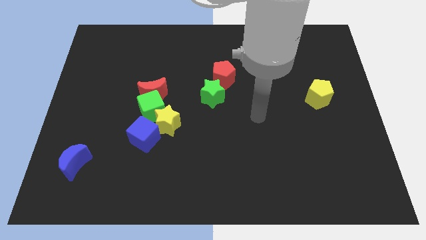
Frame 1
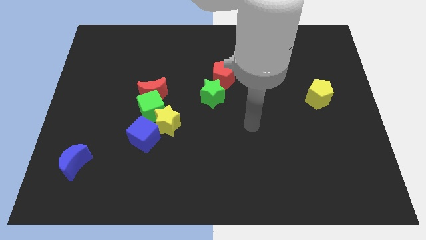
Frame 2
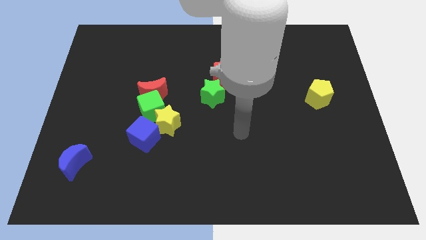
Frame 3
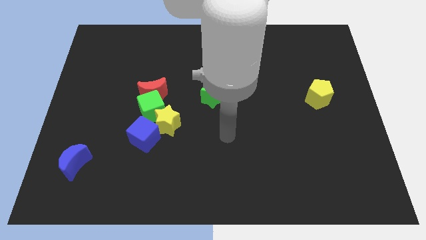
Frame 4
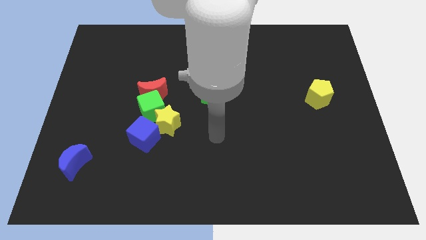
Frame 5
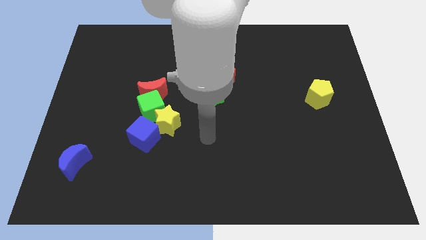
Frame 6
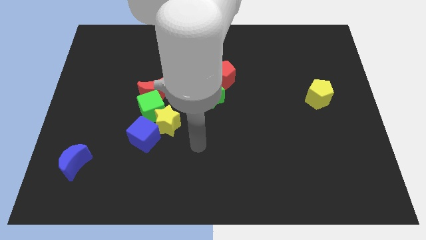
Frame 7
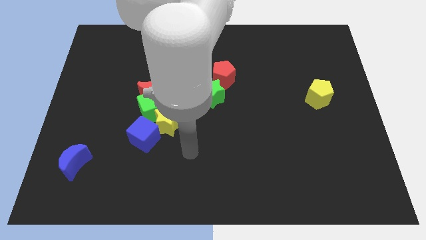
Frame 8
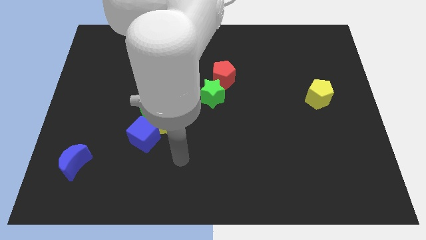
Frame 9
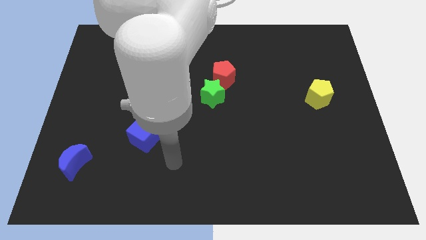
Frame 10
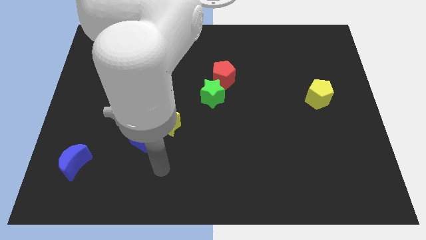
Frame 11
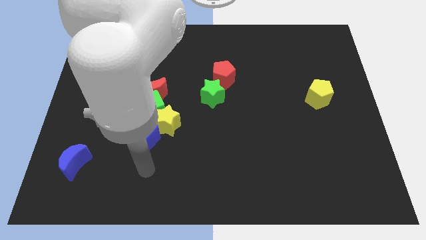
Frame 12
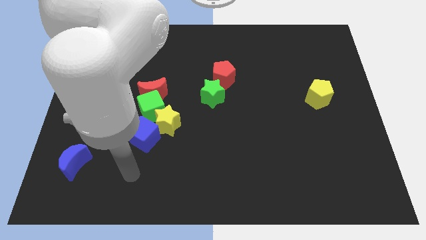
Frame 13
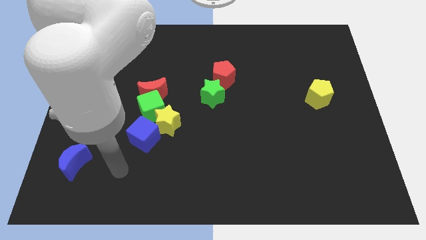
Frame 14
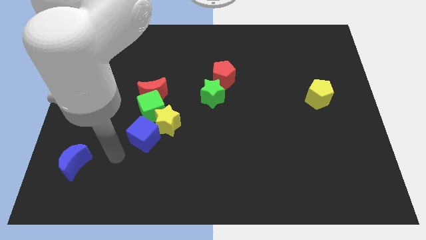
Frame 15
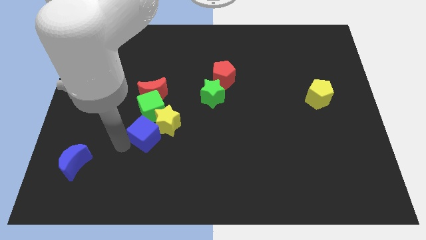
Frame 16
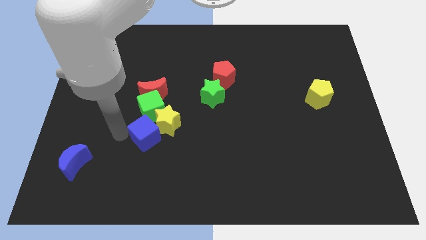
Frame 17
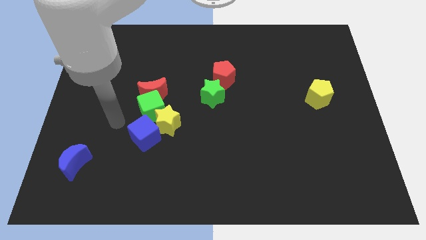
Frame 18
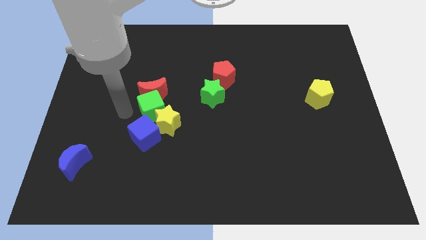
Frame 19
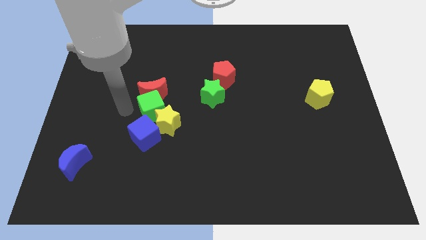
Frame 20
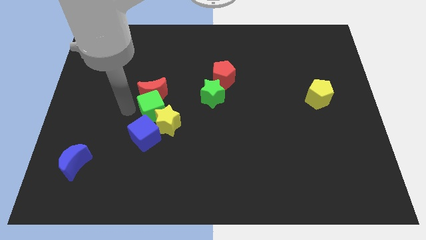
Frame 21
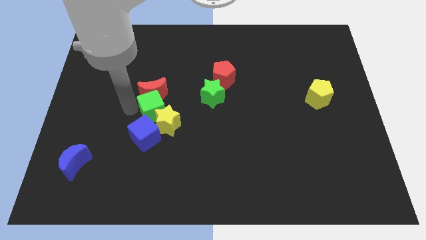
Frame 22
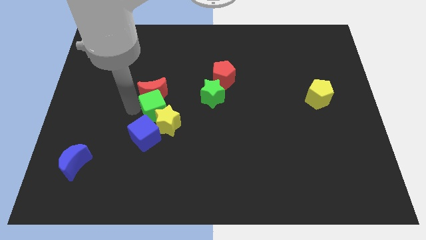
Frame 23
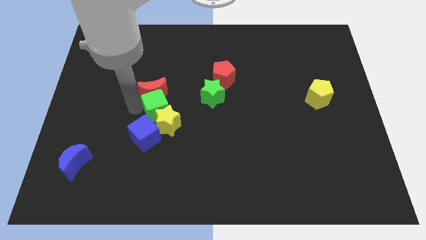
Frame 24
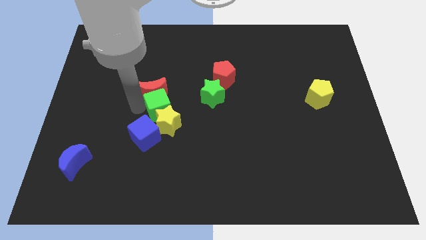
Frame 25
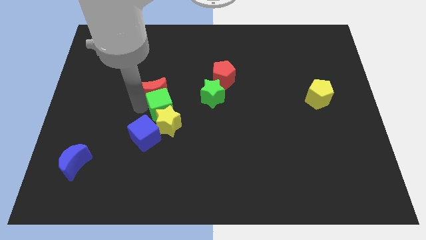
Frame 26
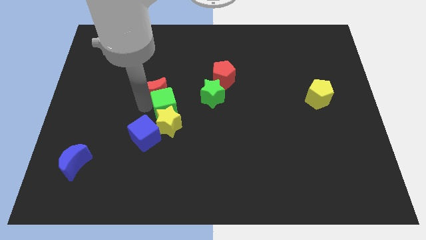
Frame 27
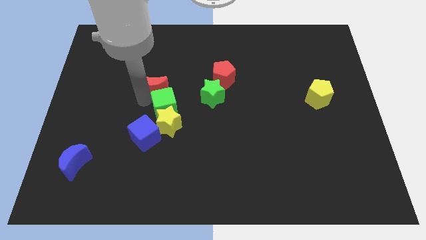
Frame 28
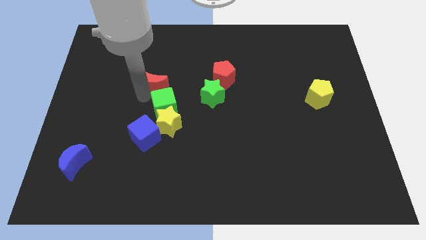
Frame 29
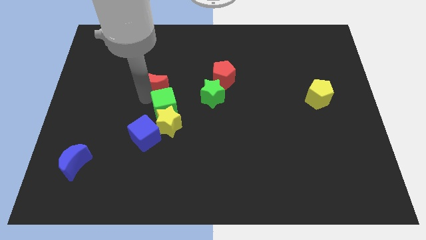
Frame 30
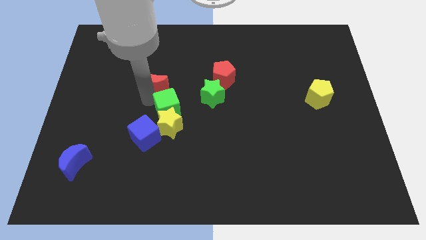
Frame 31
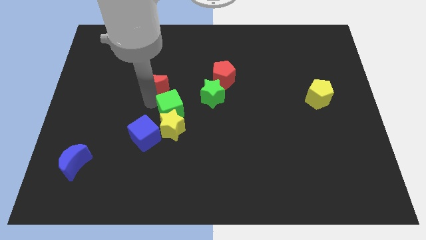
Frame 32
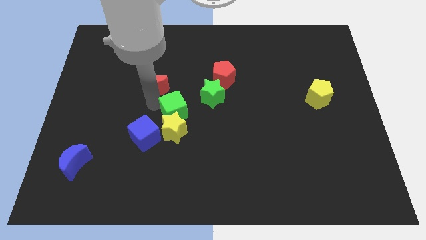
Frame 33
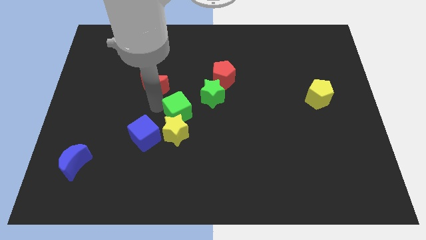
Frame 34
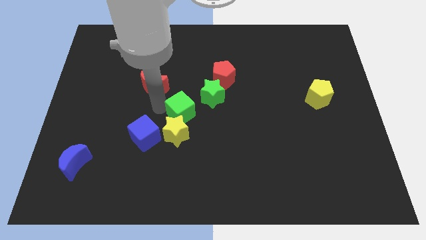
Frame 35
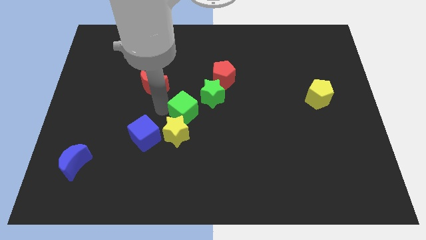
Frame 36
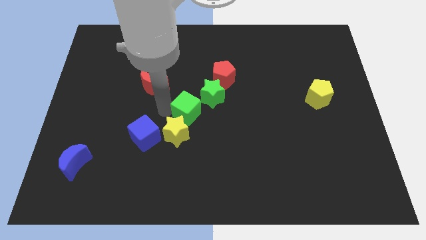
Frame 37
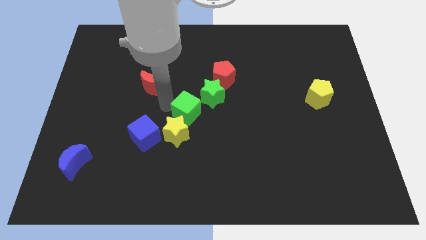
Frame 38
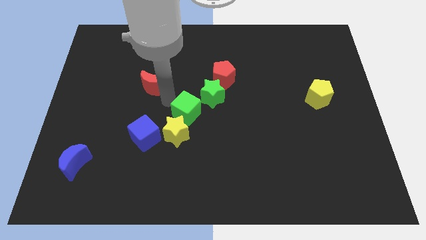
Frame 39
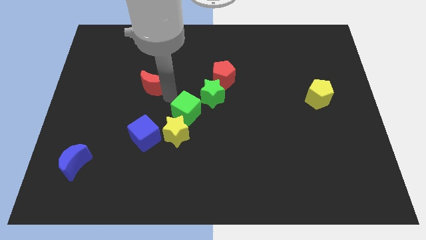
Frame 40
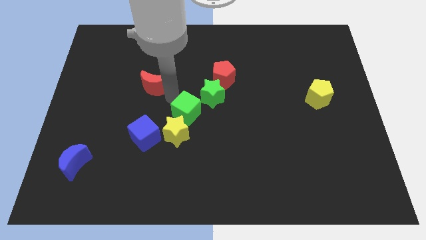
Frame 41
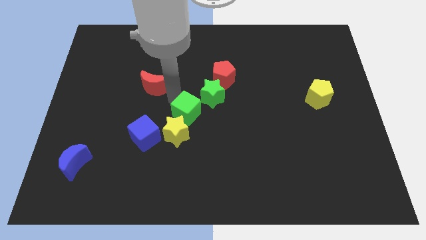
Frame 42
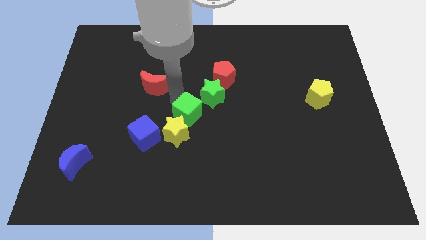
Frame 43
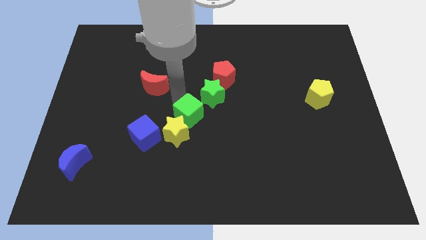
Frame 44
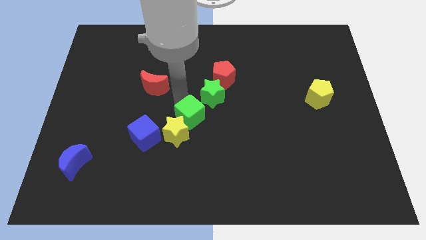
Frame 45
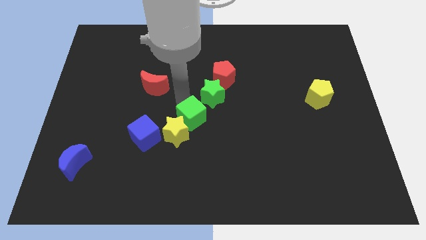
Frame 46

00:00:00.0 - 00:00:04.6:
move the green cube a little downwards and to the right diagonally

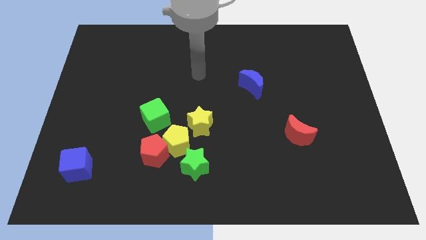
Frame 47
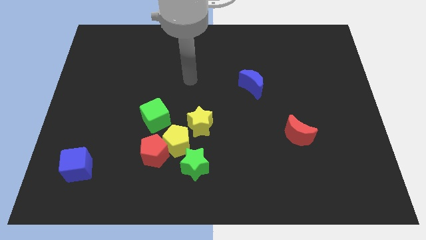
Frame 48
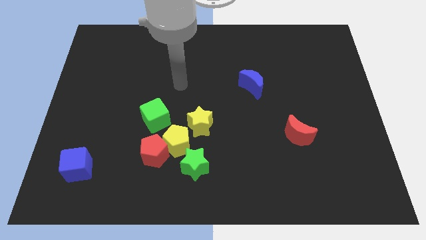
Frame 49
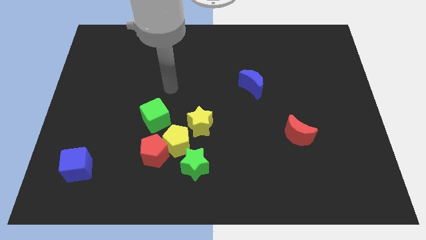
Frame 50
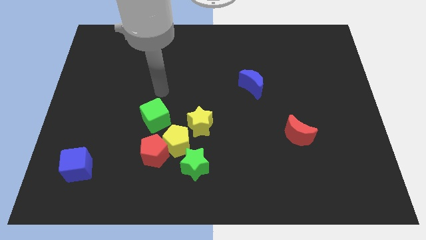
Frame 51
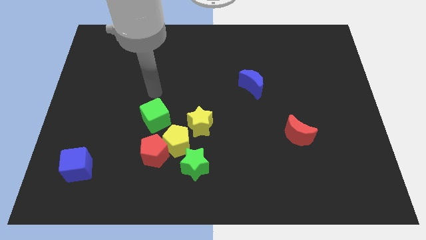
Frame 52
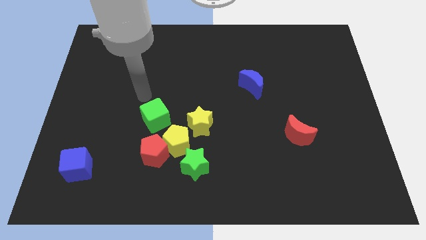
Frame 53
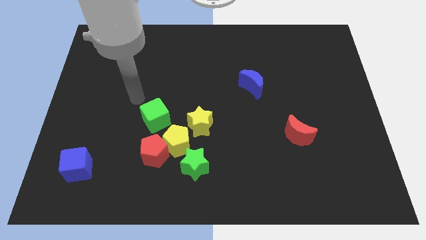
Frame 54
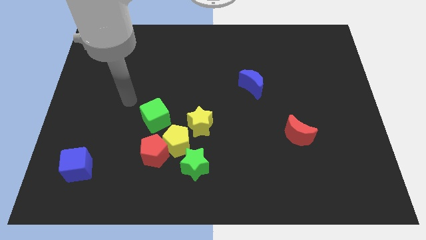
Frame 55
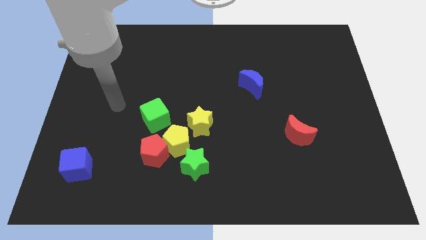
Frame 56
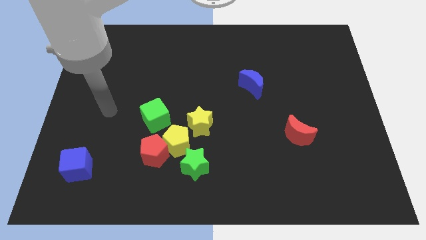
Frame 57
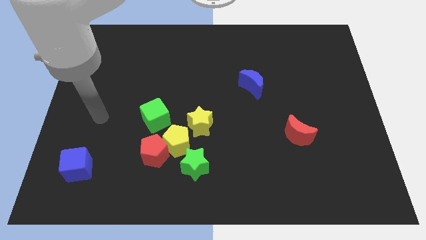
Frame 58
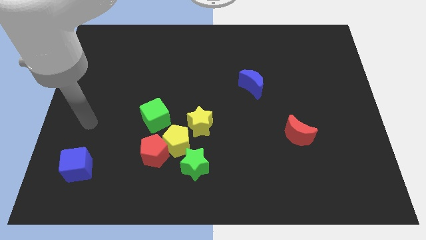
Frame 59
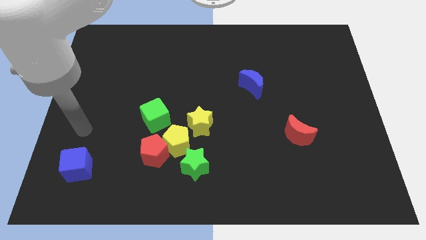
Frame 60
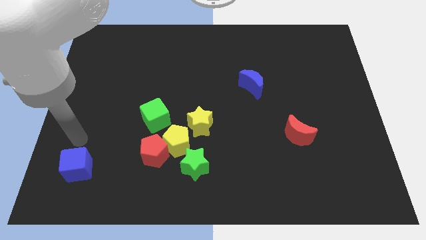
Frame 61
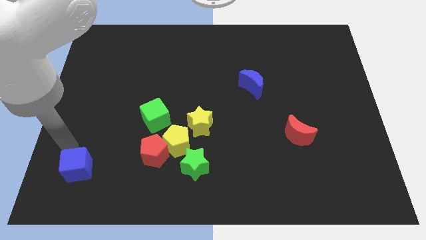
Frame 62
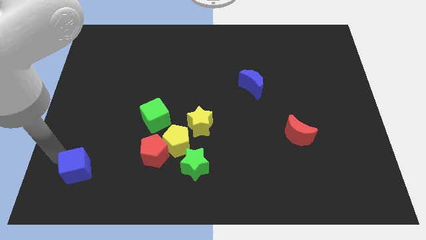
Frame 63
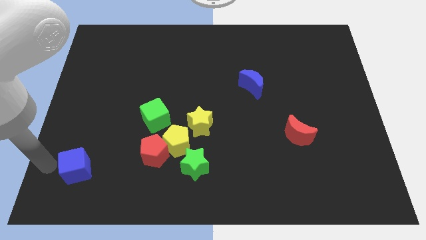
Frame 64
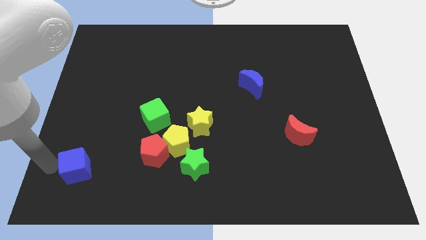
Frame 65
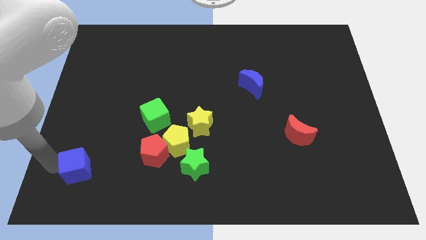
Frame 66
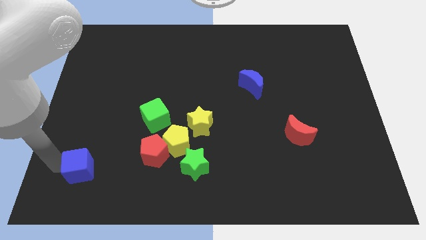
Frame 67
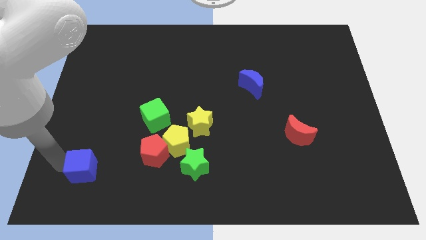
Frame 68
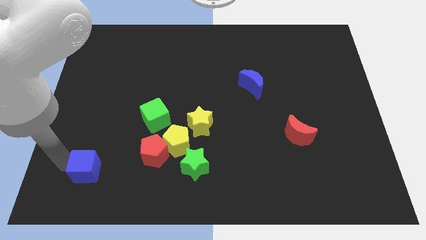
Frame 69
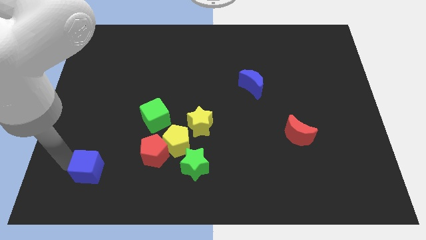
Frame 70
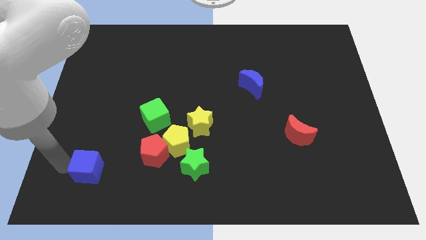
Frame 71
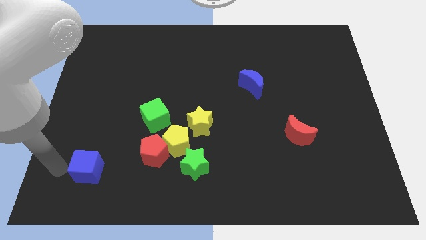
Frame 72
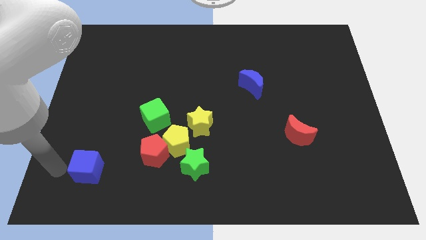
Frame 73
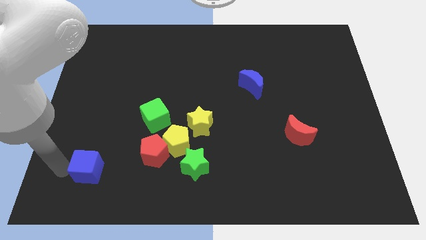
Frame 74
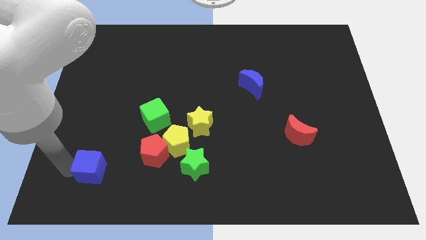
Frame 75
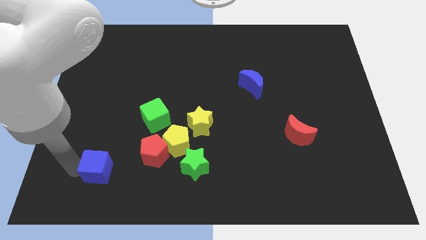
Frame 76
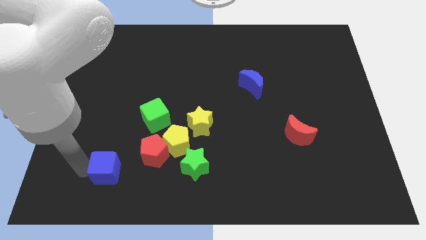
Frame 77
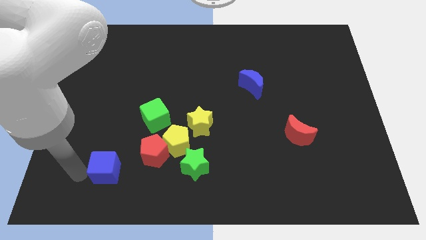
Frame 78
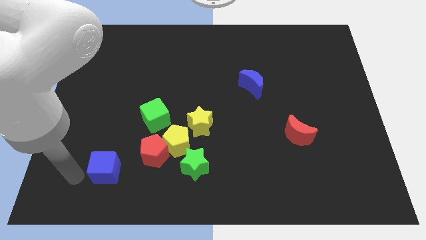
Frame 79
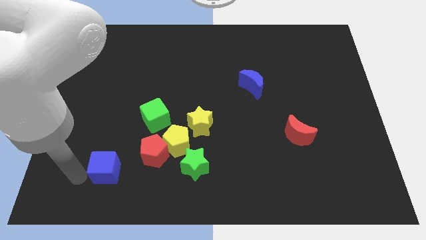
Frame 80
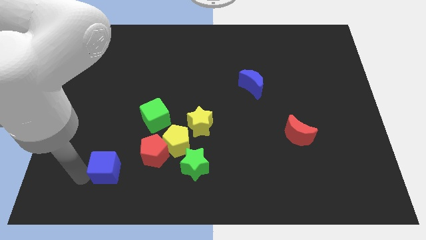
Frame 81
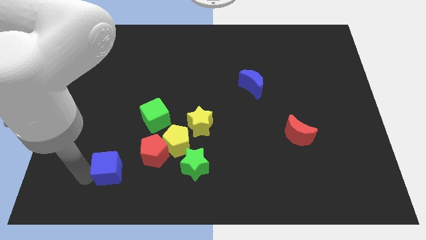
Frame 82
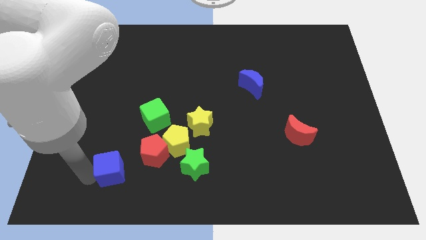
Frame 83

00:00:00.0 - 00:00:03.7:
slide the blue cube to the right a bit
